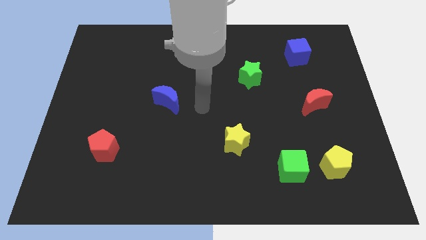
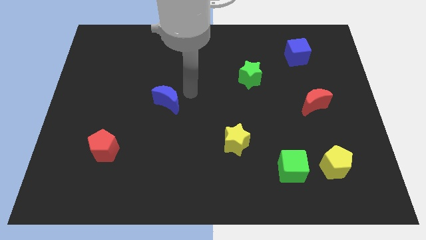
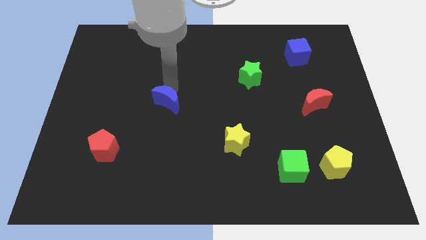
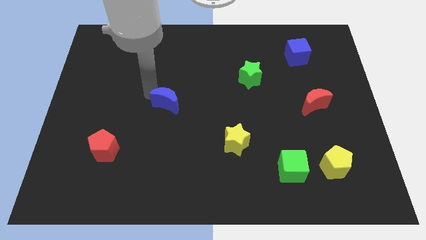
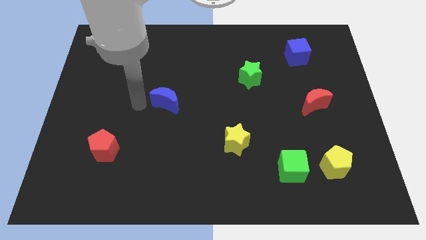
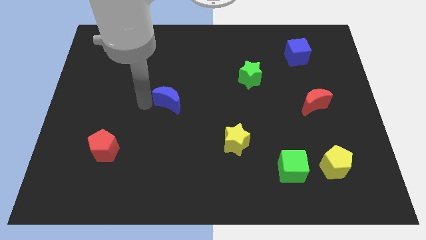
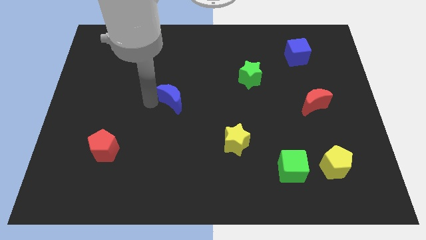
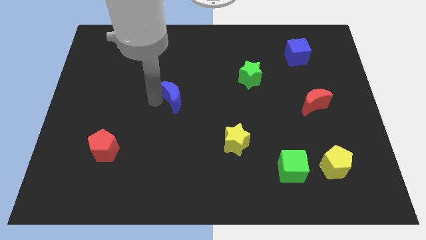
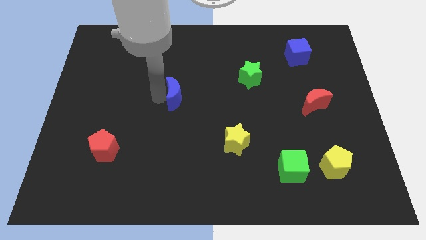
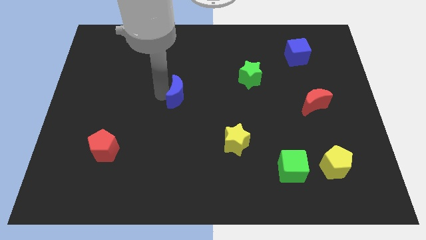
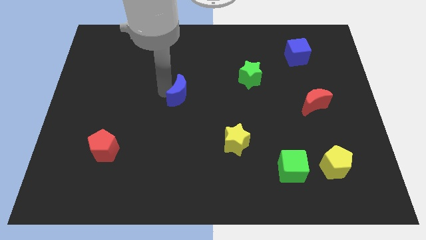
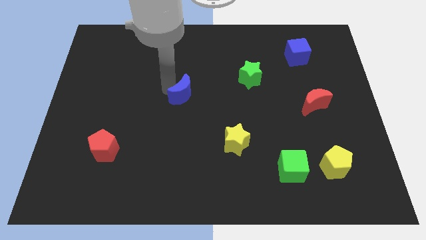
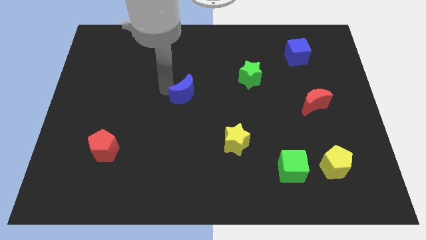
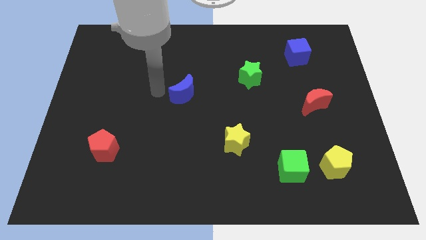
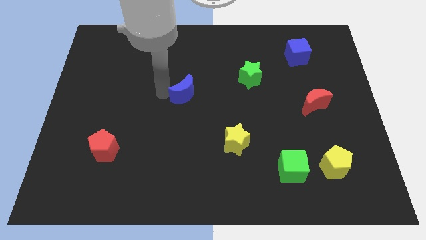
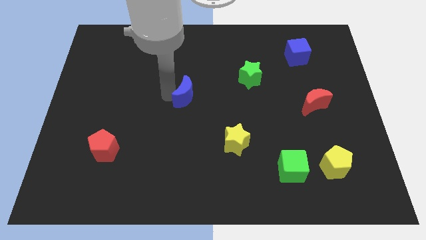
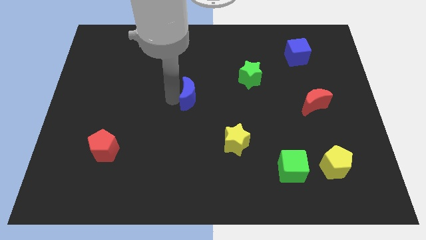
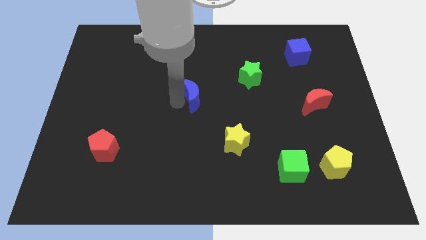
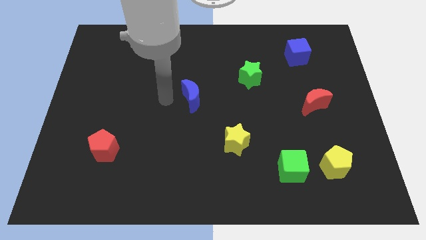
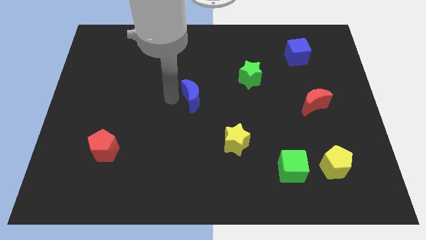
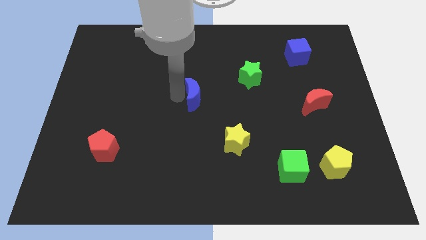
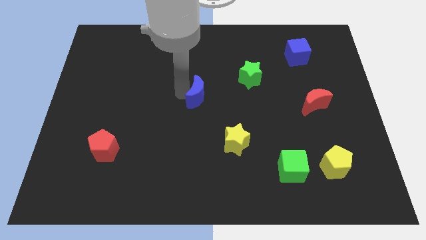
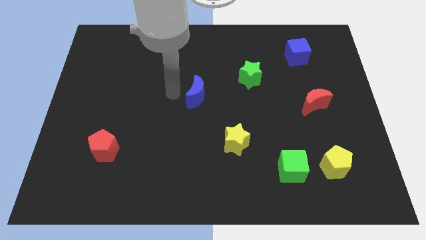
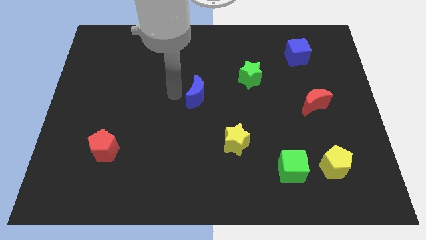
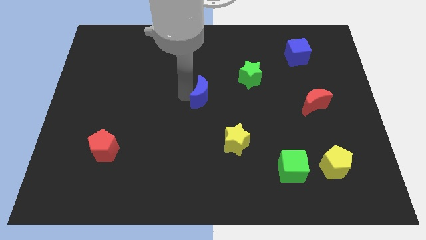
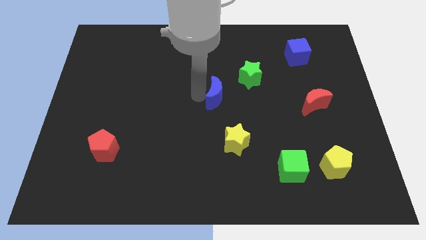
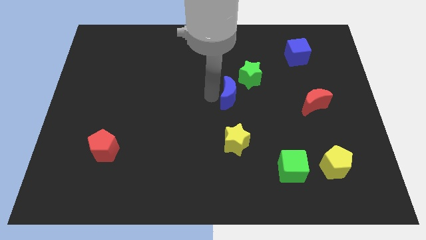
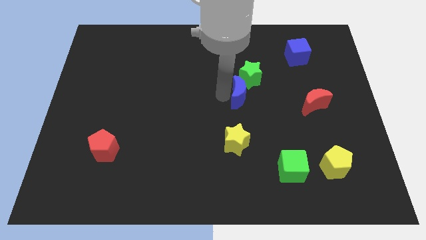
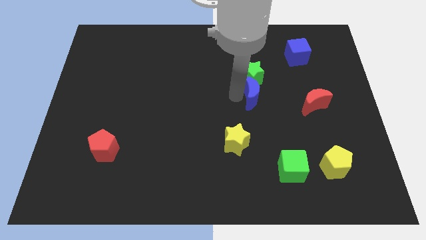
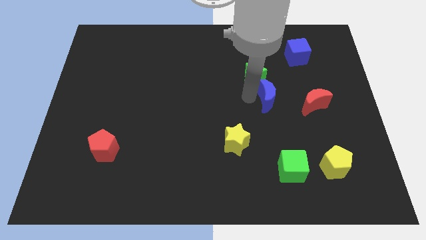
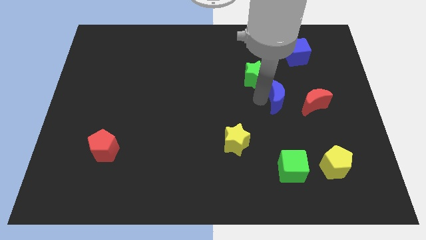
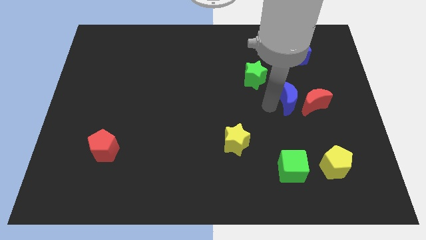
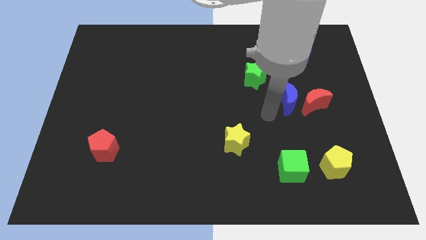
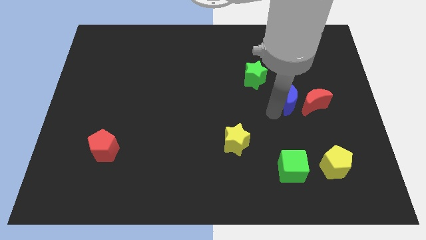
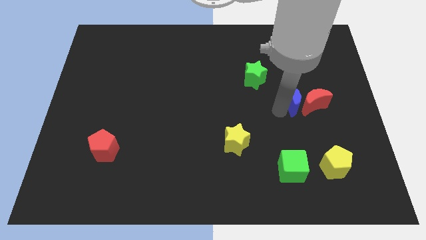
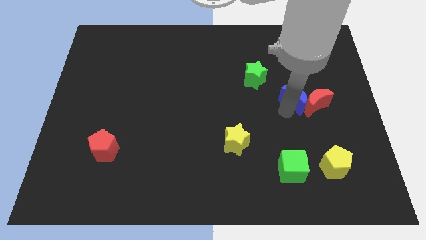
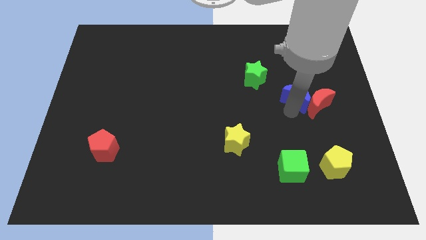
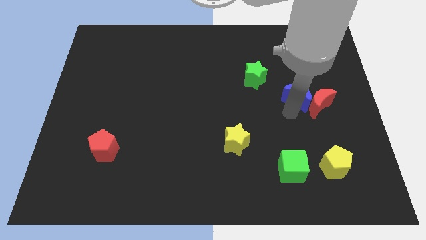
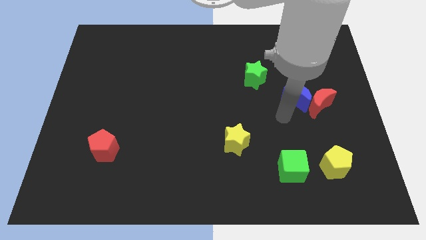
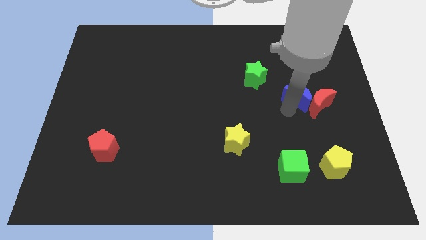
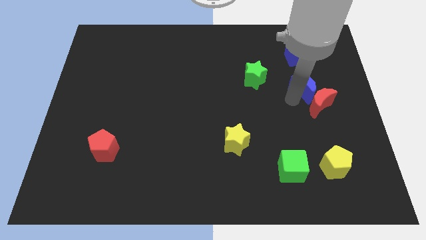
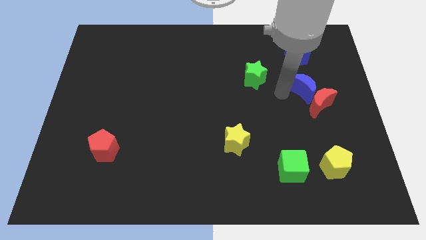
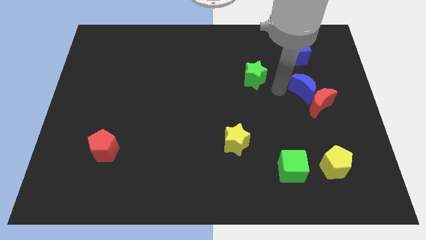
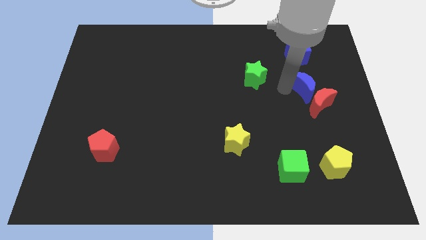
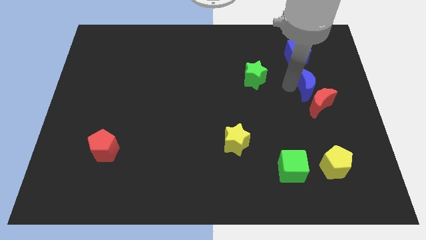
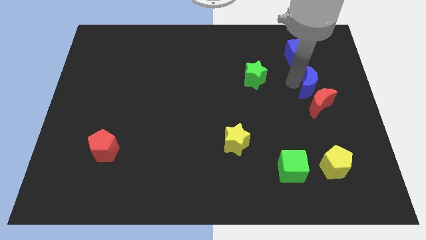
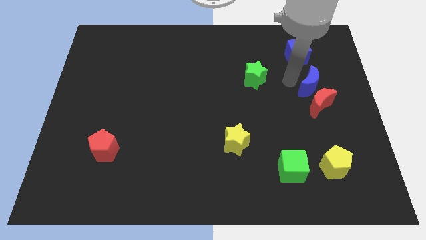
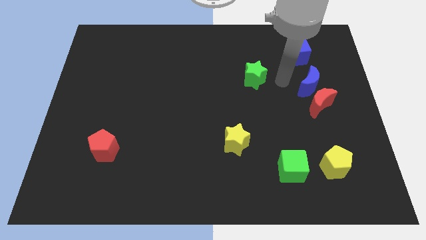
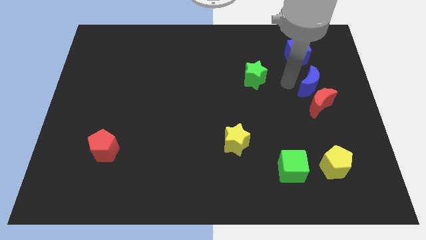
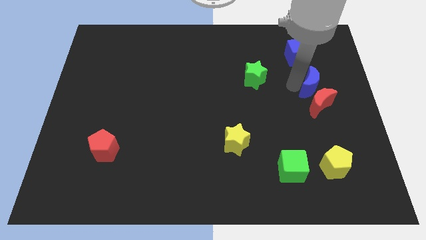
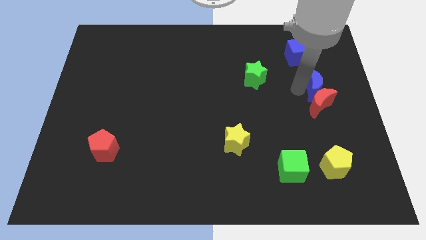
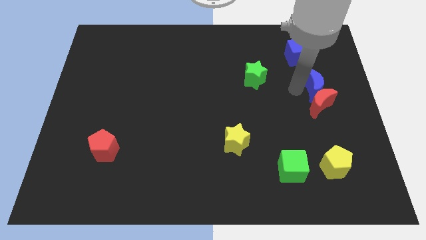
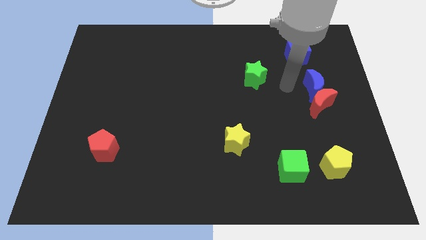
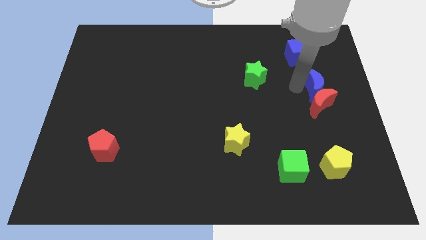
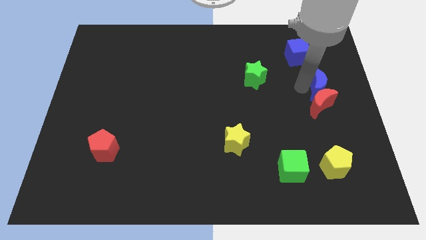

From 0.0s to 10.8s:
push the blue moon to the center right

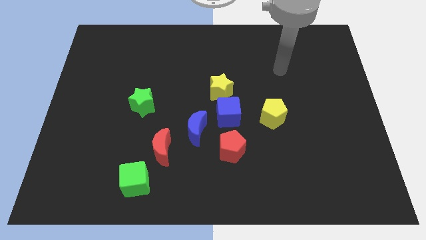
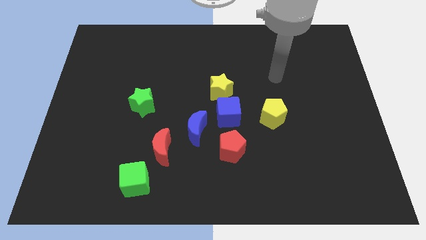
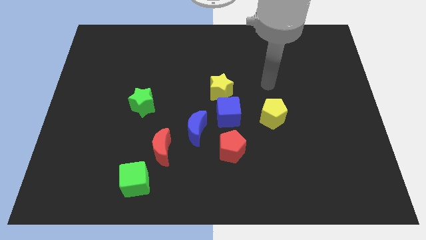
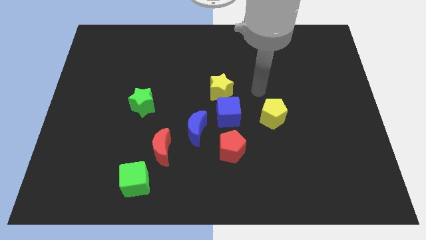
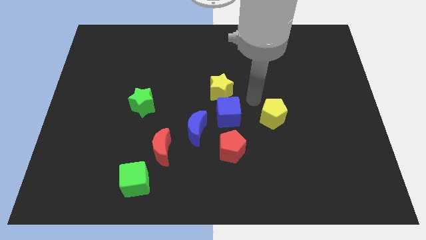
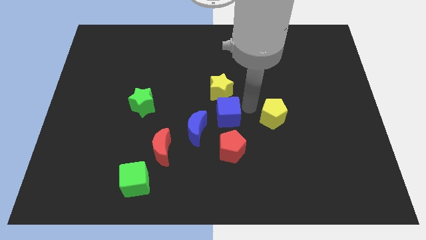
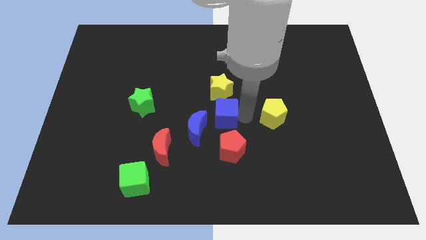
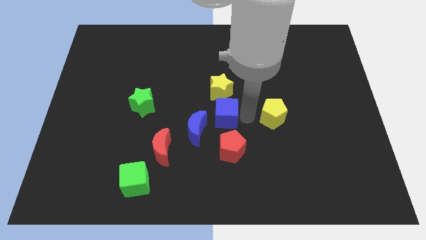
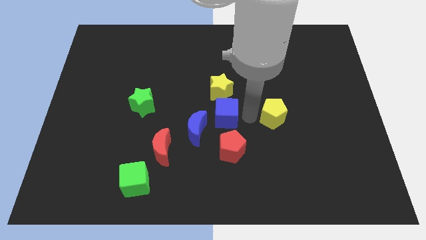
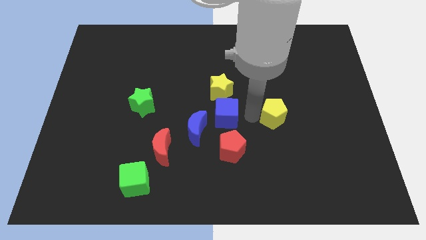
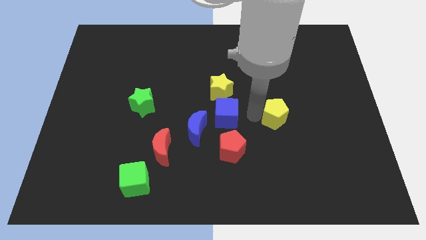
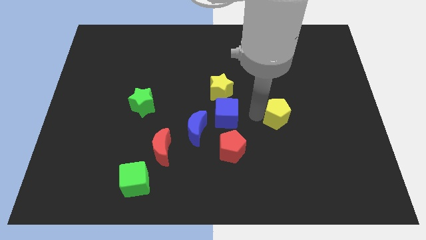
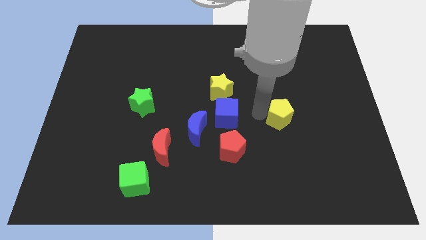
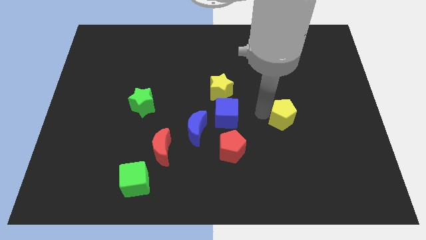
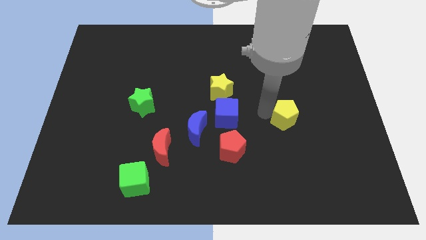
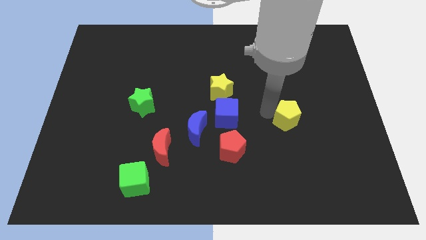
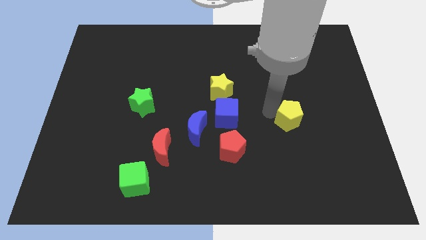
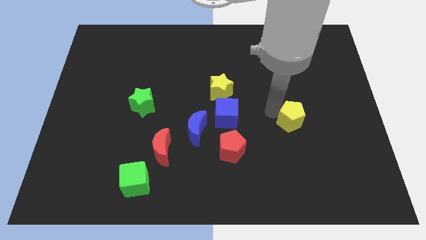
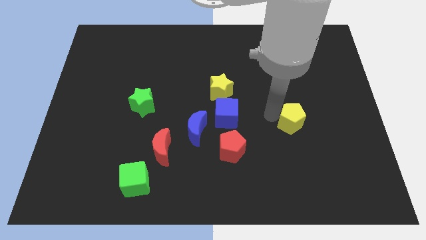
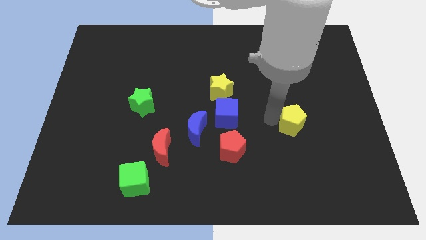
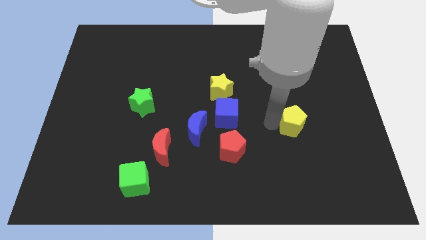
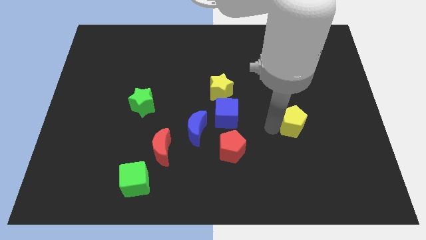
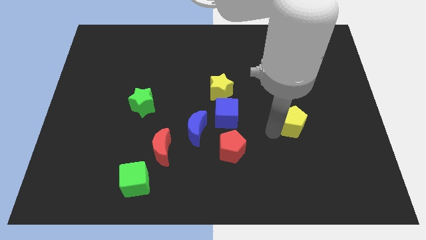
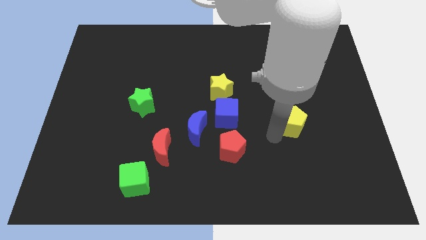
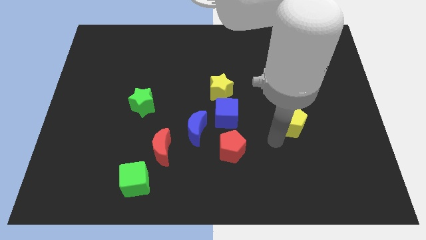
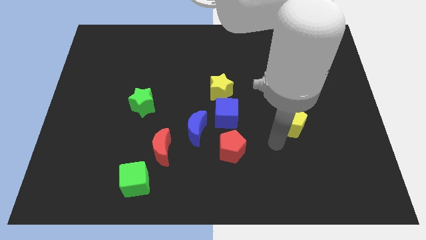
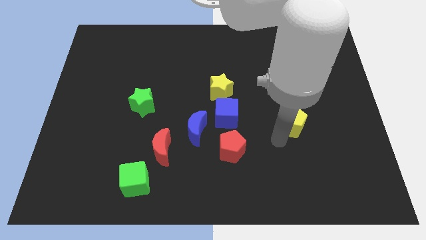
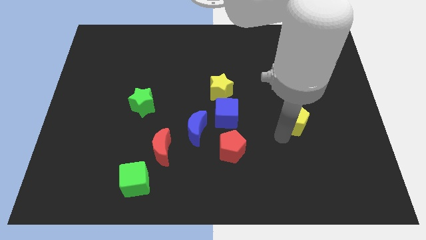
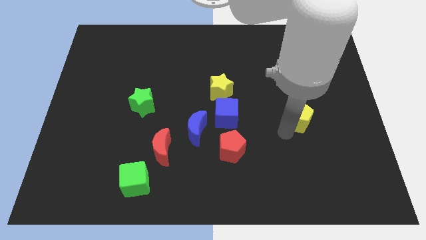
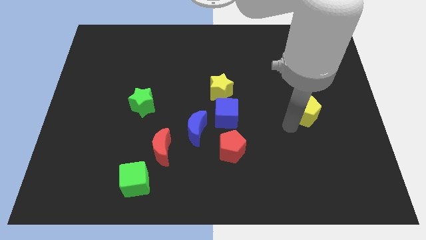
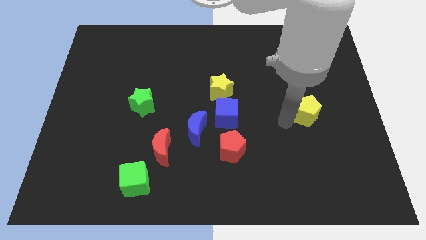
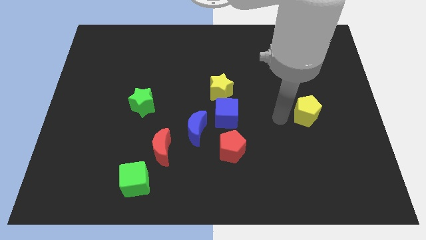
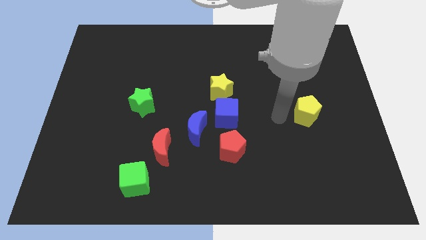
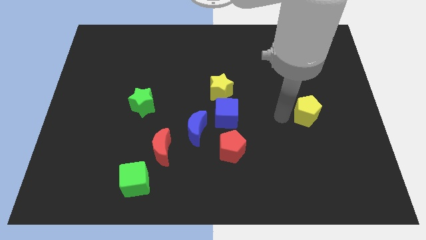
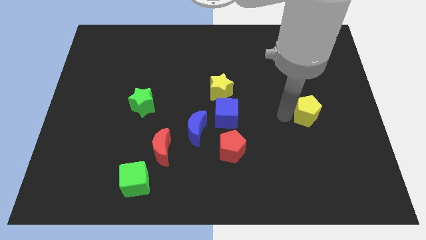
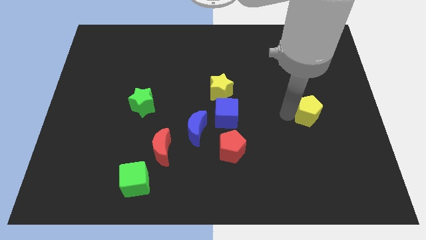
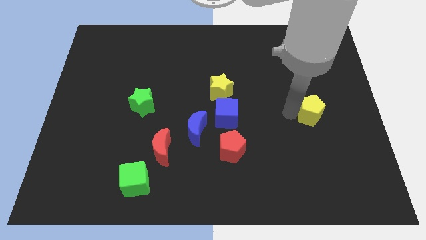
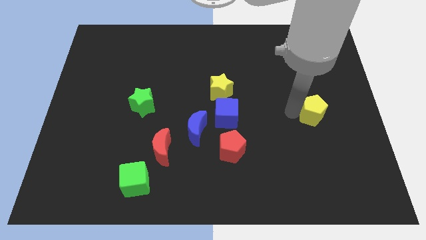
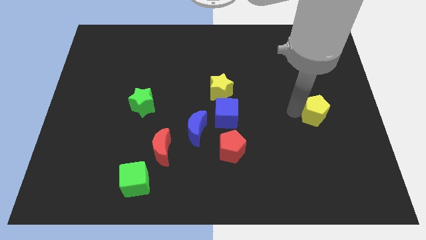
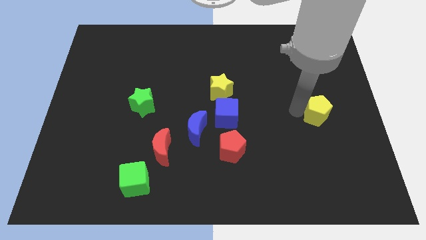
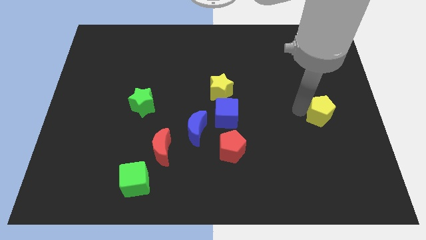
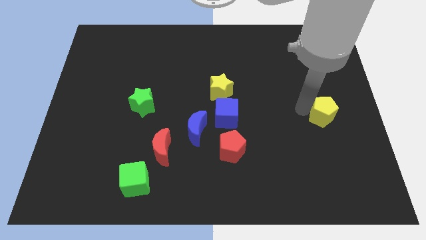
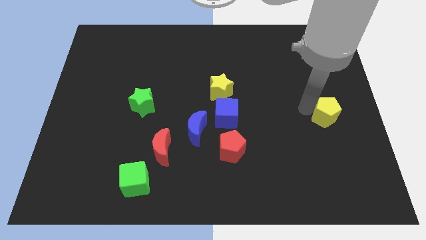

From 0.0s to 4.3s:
move the yellow pentagon to the center right
